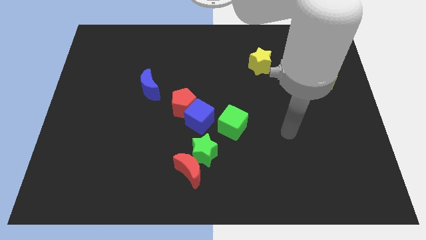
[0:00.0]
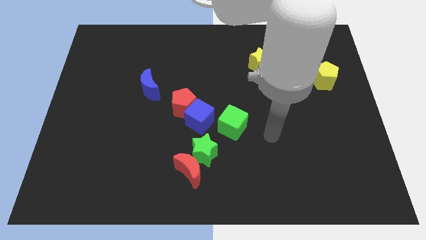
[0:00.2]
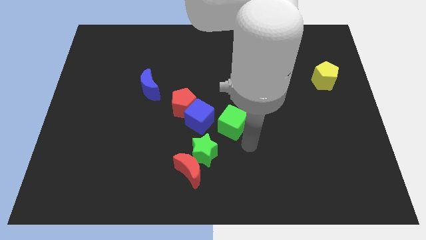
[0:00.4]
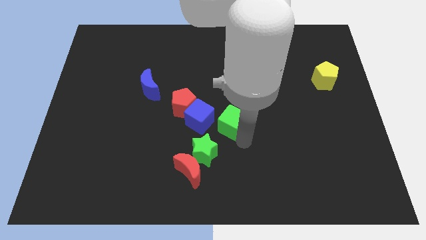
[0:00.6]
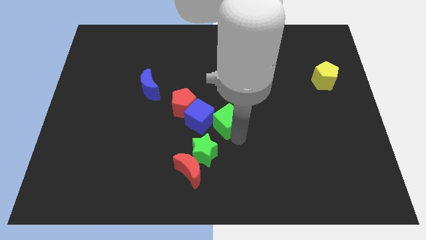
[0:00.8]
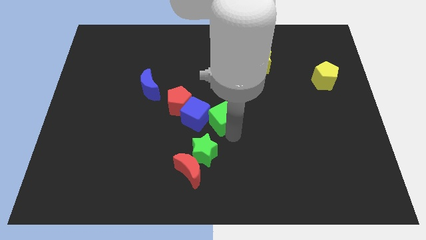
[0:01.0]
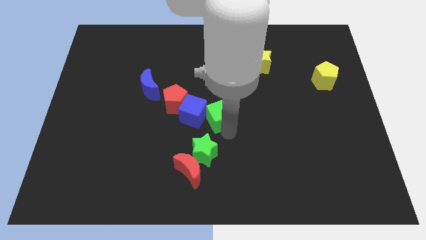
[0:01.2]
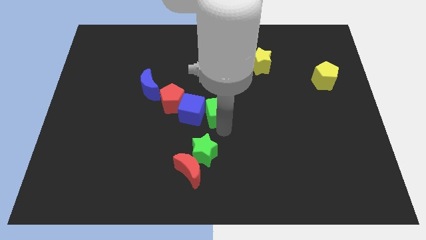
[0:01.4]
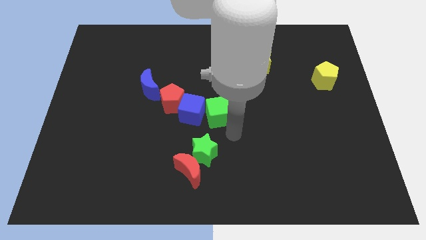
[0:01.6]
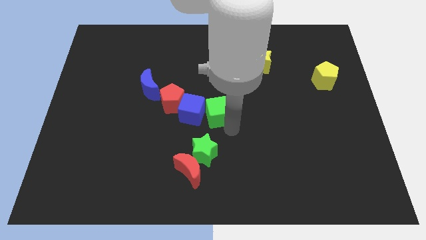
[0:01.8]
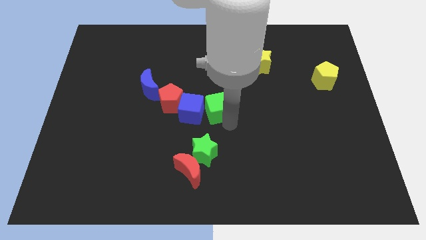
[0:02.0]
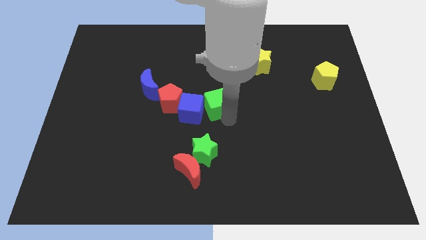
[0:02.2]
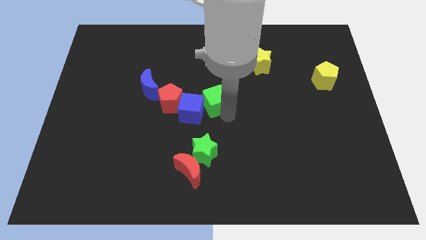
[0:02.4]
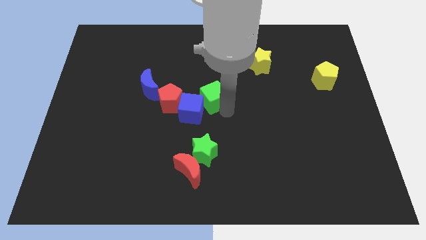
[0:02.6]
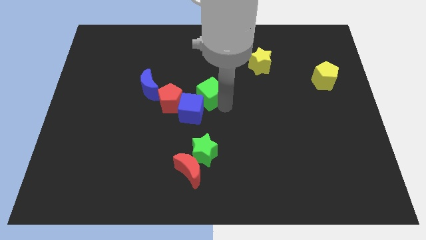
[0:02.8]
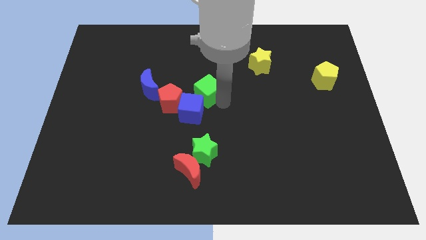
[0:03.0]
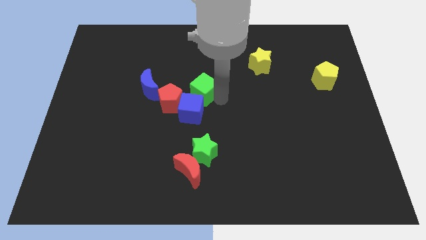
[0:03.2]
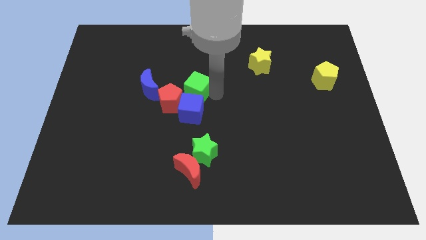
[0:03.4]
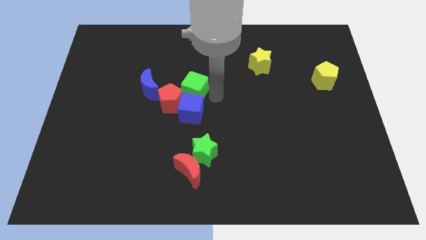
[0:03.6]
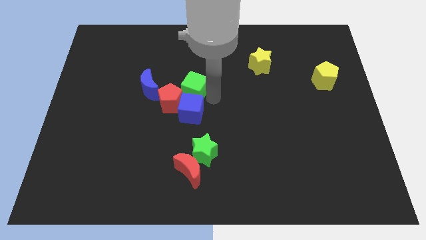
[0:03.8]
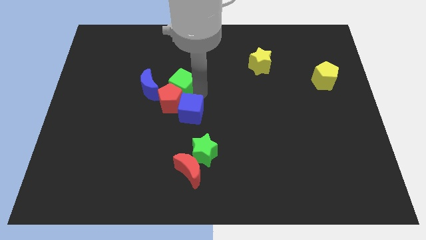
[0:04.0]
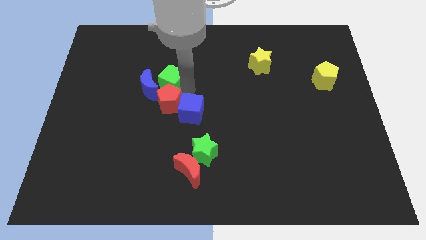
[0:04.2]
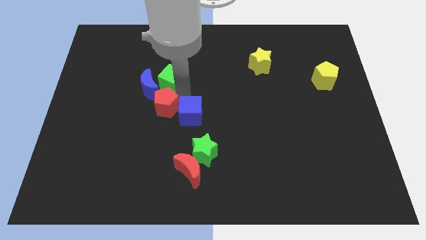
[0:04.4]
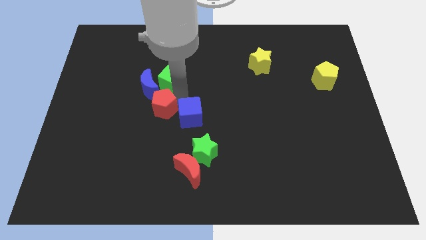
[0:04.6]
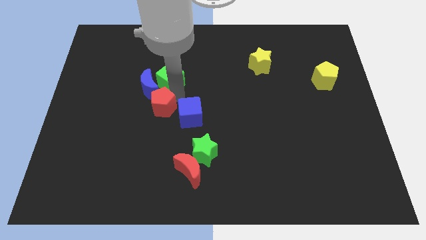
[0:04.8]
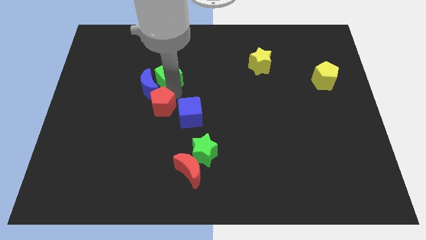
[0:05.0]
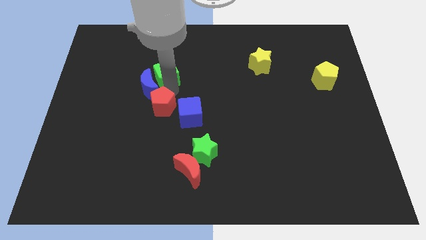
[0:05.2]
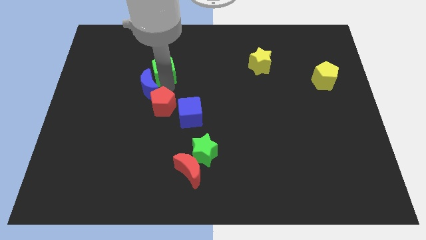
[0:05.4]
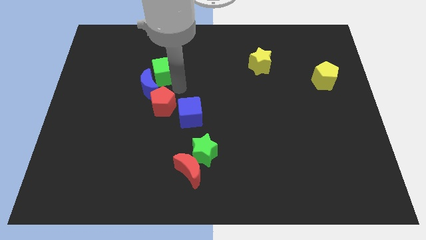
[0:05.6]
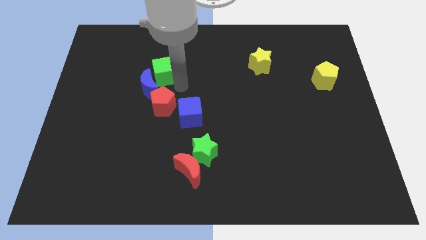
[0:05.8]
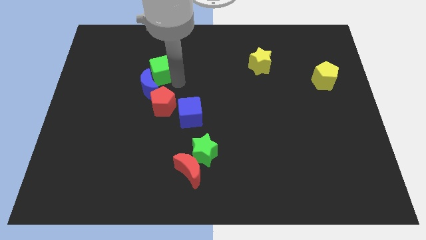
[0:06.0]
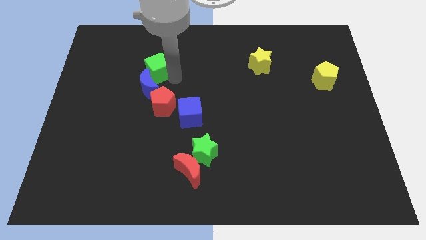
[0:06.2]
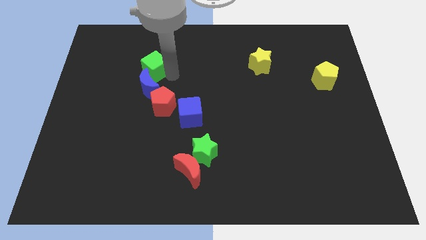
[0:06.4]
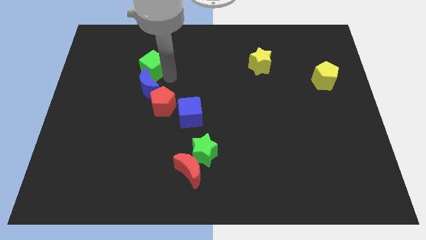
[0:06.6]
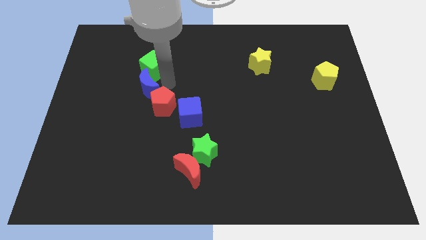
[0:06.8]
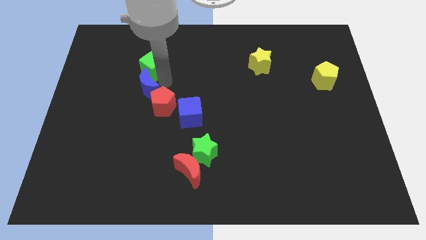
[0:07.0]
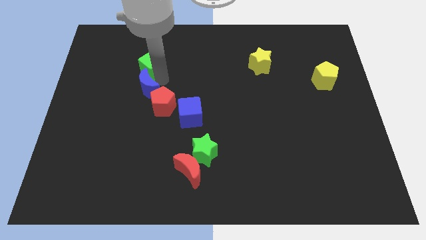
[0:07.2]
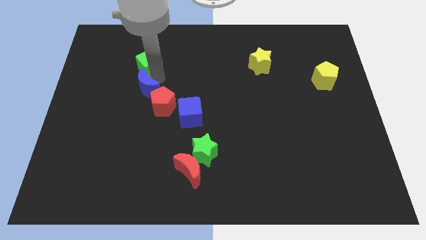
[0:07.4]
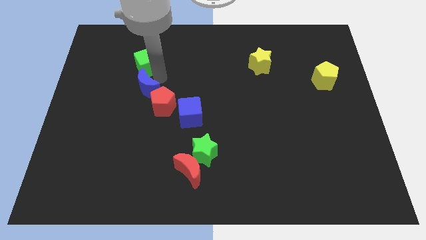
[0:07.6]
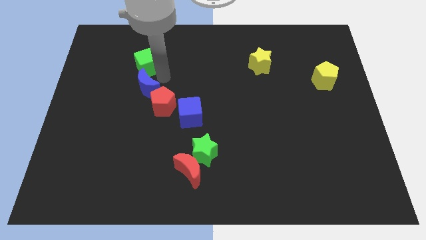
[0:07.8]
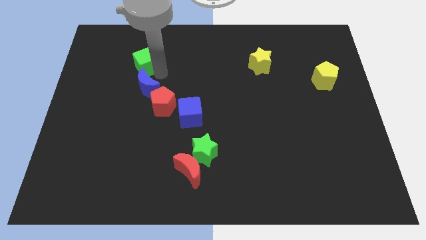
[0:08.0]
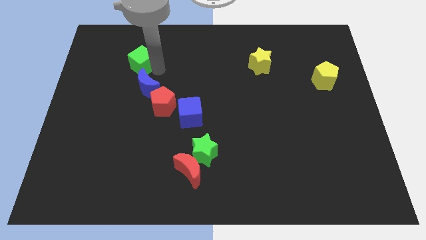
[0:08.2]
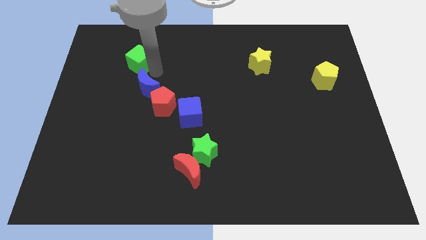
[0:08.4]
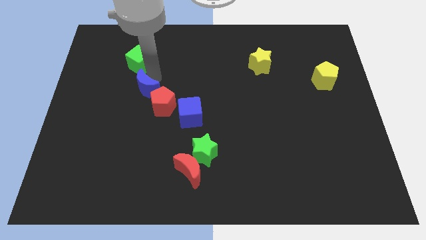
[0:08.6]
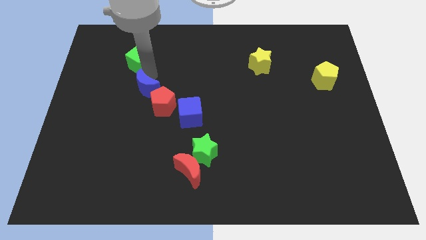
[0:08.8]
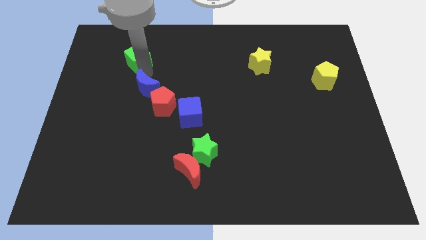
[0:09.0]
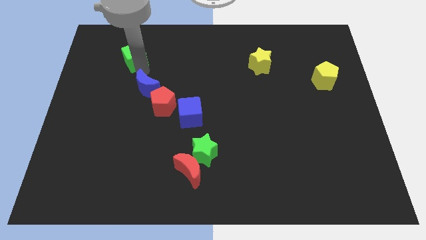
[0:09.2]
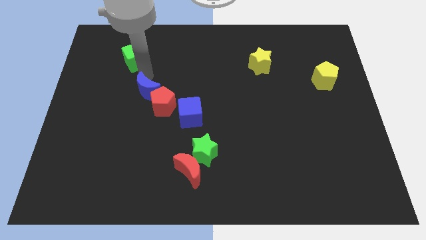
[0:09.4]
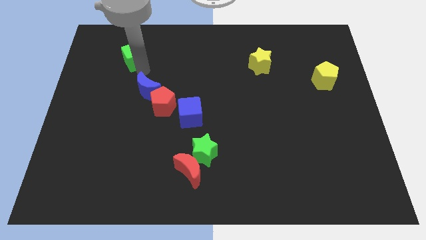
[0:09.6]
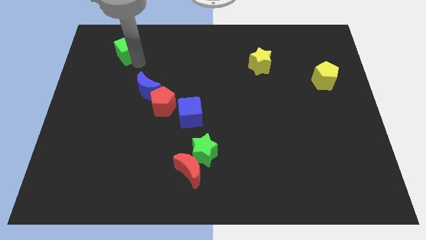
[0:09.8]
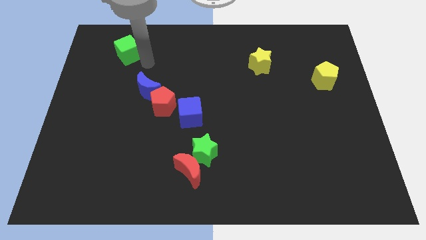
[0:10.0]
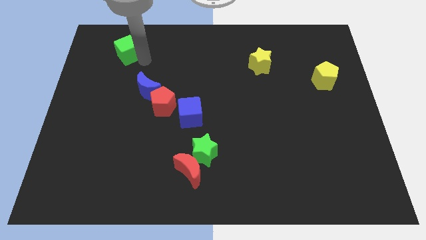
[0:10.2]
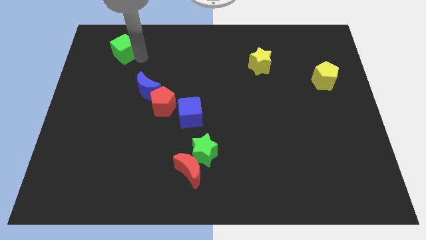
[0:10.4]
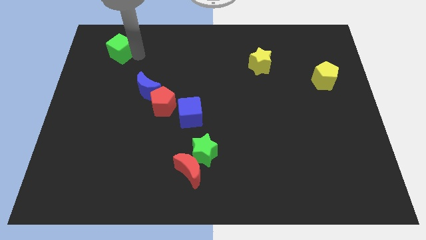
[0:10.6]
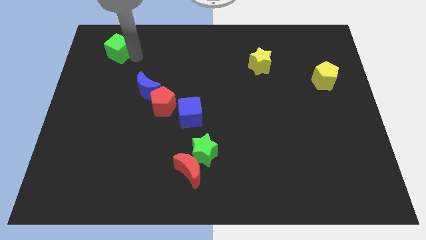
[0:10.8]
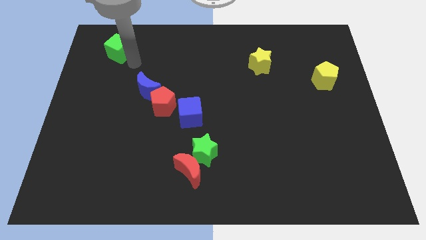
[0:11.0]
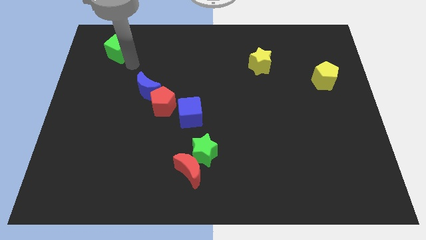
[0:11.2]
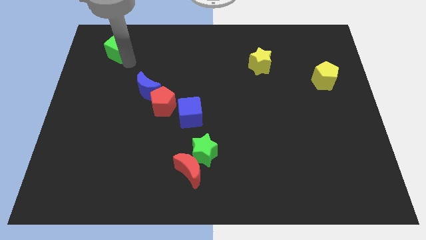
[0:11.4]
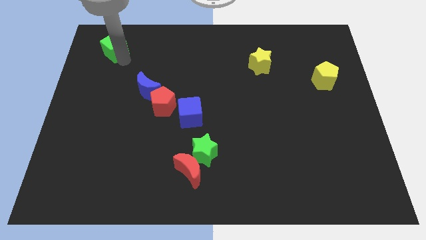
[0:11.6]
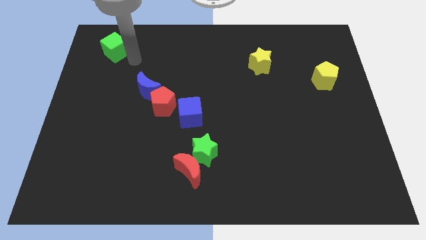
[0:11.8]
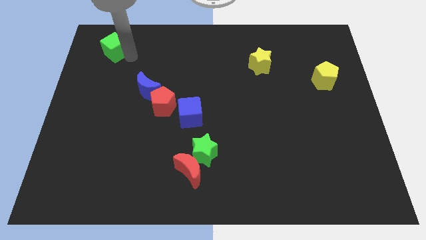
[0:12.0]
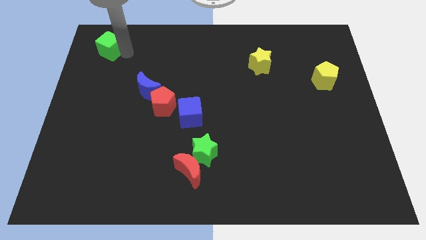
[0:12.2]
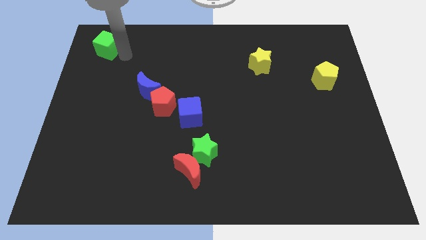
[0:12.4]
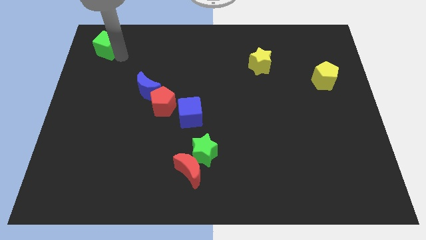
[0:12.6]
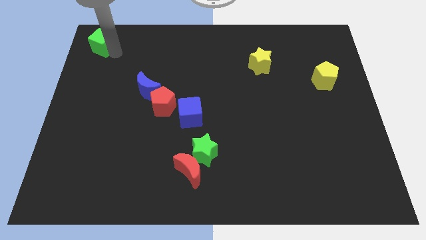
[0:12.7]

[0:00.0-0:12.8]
move the green cube to the top left
